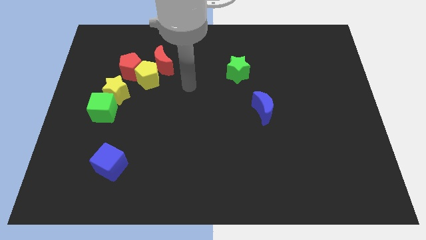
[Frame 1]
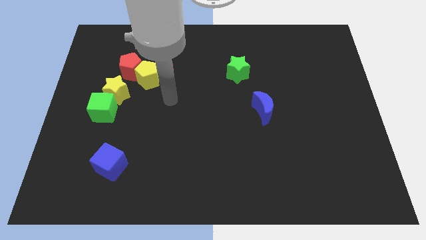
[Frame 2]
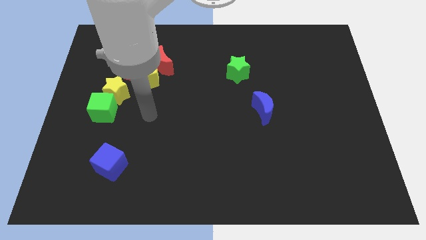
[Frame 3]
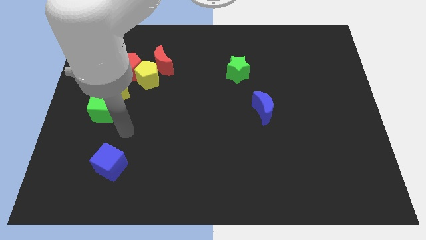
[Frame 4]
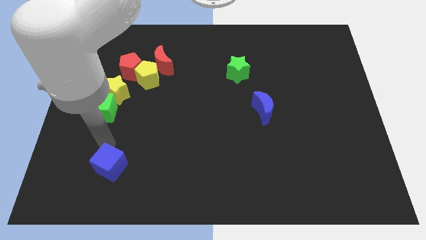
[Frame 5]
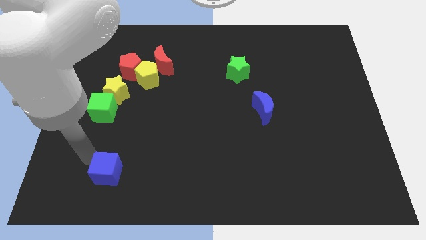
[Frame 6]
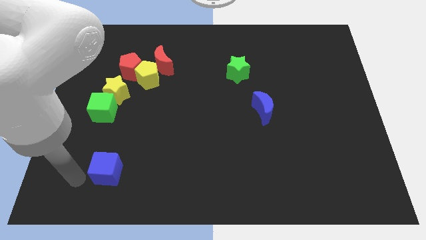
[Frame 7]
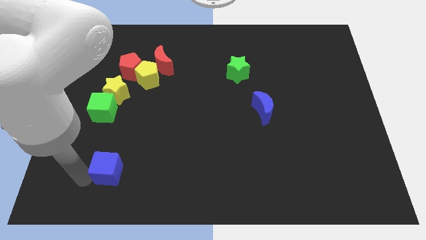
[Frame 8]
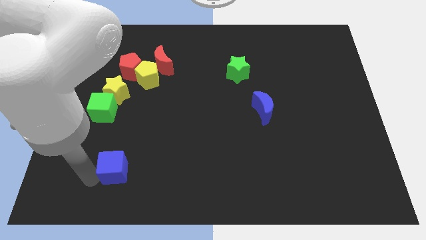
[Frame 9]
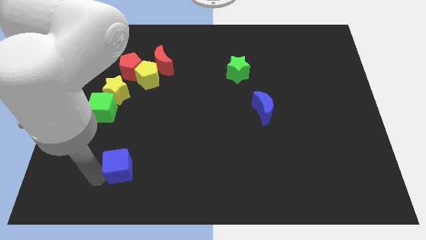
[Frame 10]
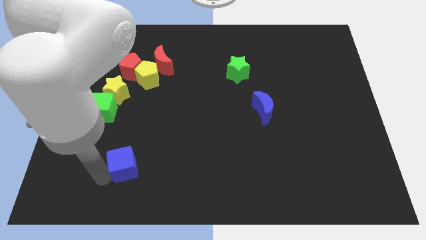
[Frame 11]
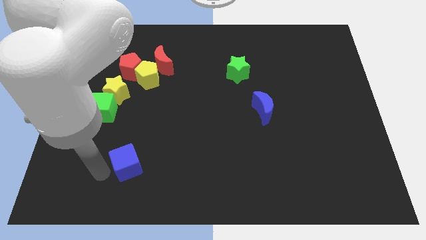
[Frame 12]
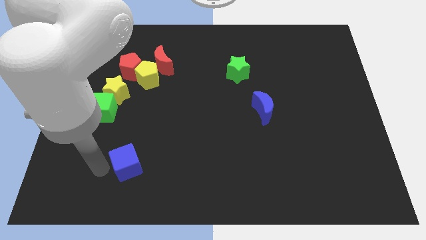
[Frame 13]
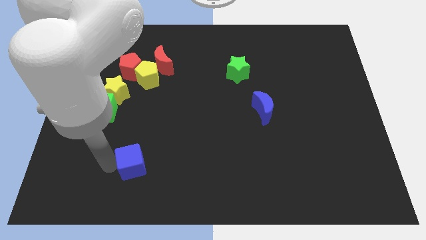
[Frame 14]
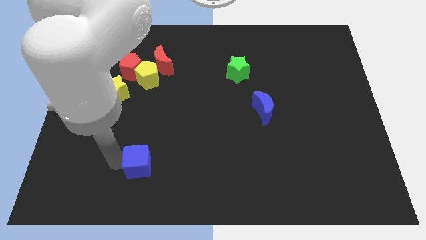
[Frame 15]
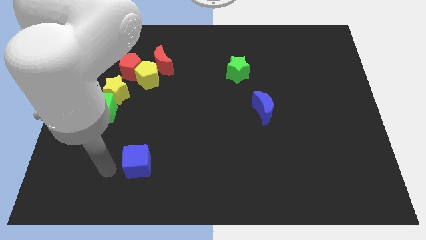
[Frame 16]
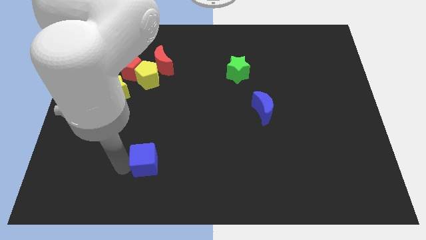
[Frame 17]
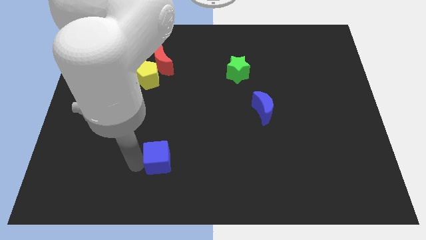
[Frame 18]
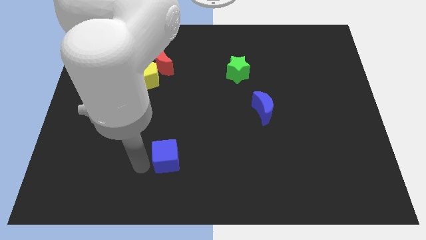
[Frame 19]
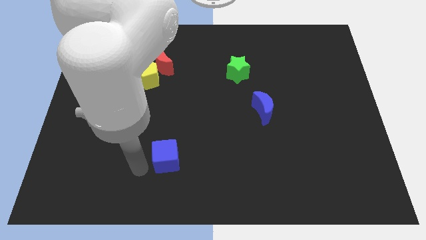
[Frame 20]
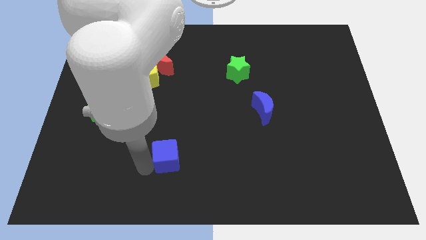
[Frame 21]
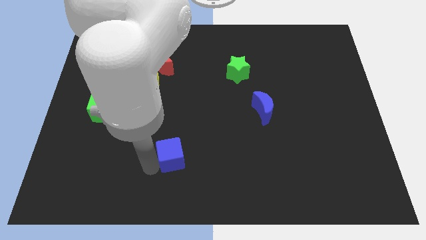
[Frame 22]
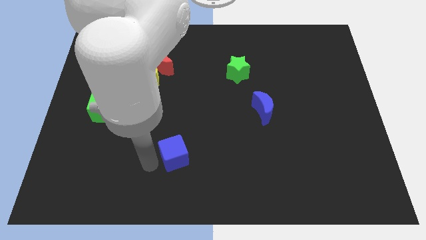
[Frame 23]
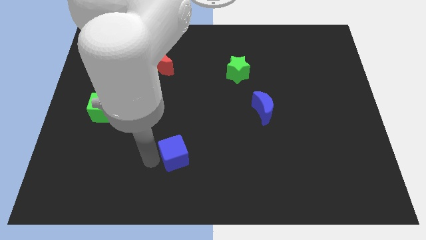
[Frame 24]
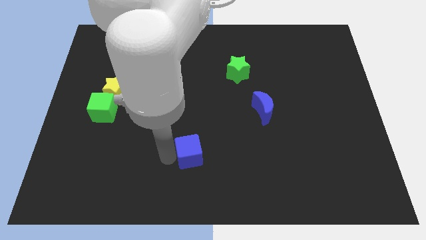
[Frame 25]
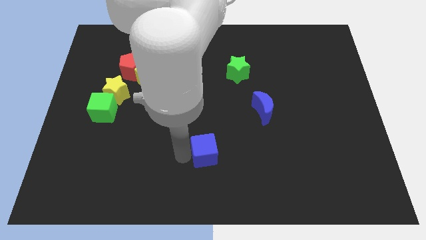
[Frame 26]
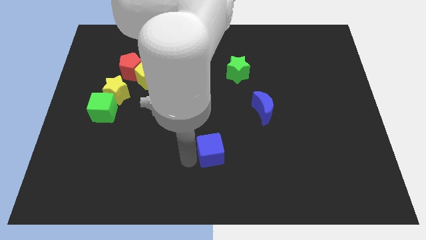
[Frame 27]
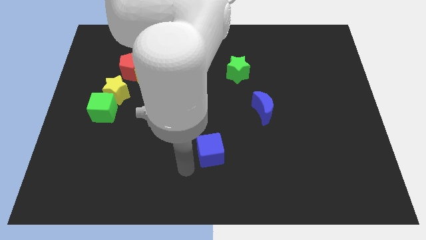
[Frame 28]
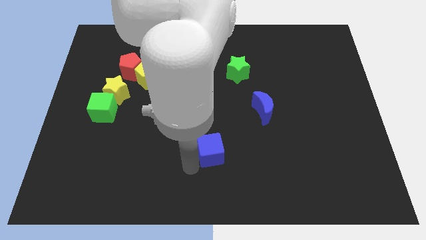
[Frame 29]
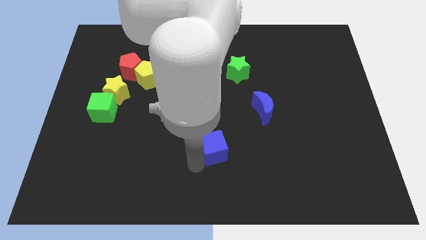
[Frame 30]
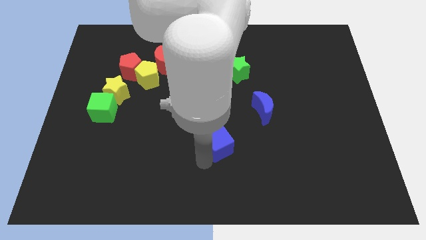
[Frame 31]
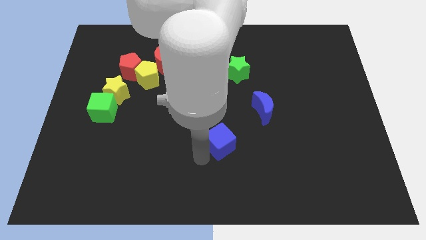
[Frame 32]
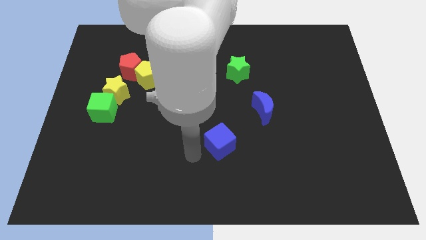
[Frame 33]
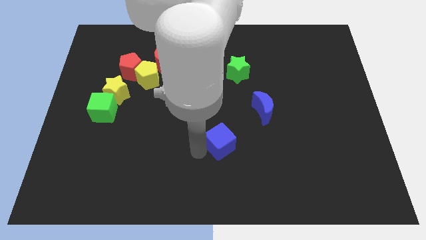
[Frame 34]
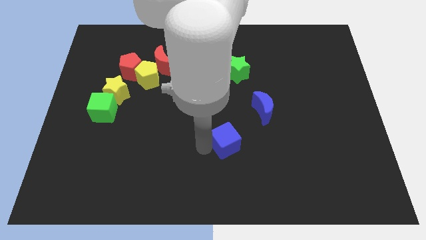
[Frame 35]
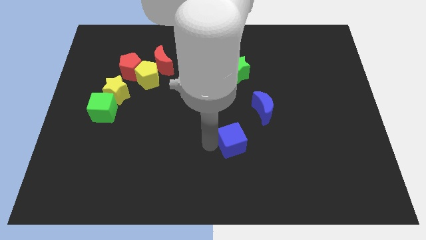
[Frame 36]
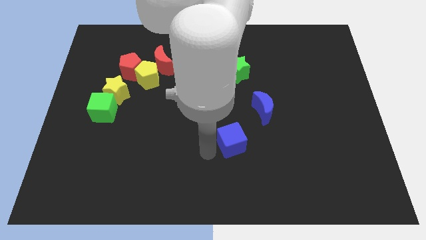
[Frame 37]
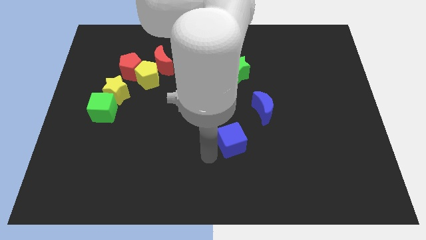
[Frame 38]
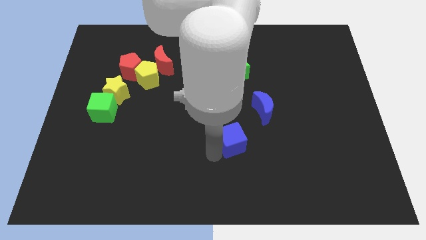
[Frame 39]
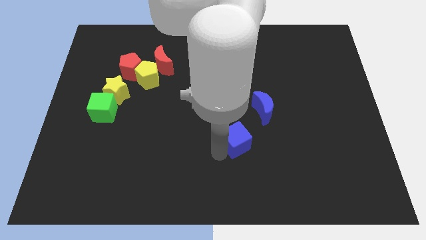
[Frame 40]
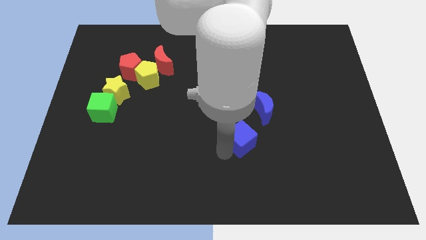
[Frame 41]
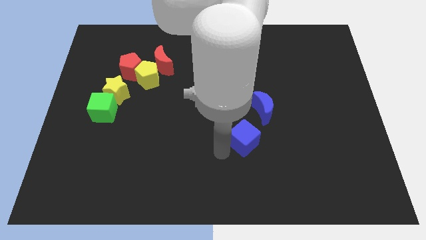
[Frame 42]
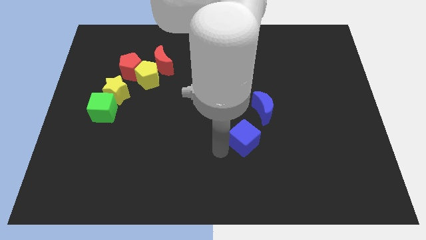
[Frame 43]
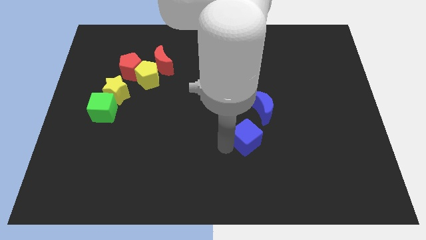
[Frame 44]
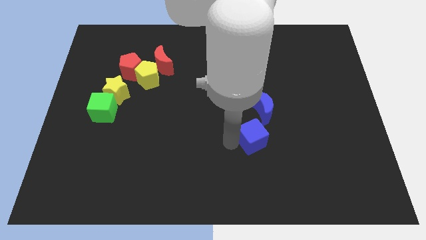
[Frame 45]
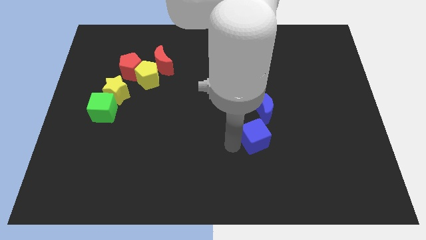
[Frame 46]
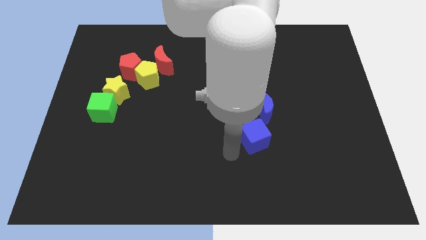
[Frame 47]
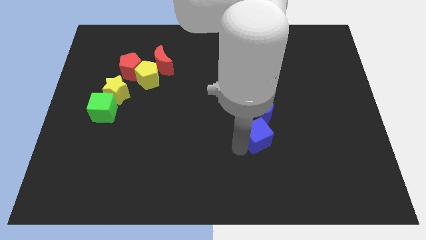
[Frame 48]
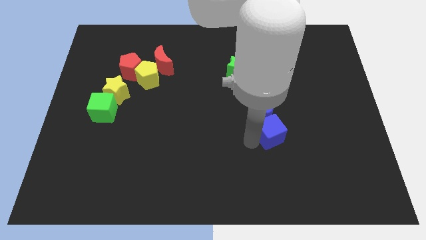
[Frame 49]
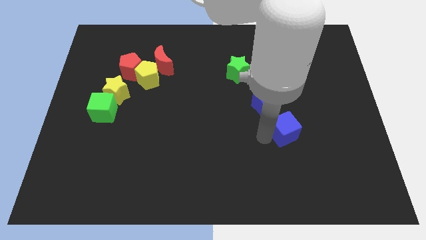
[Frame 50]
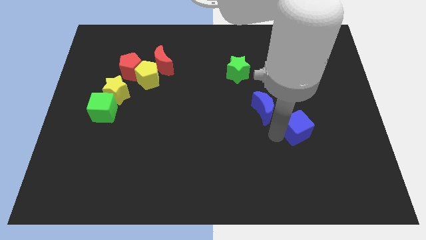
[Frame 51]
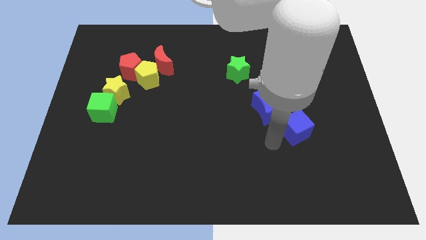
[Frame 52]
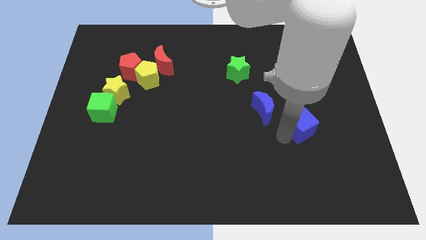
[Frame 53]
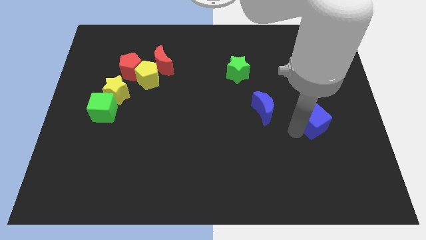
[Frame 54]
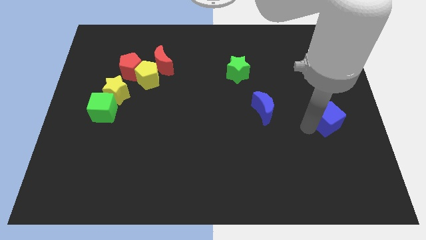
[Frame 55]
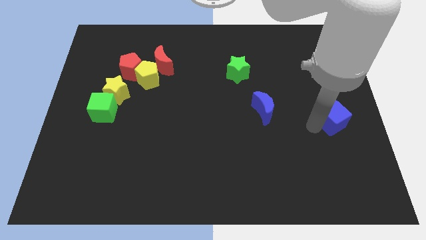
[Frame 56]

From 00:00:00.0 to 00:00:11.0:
move the blue cube to the right side of the board

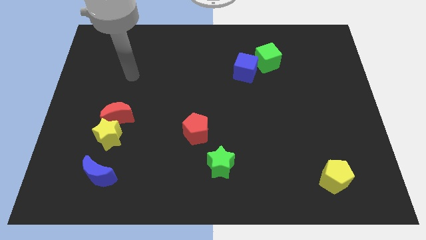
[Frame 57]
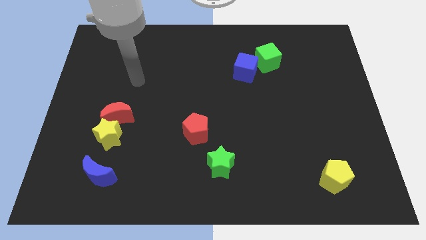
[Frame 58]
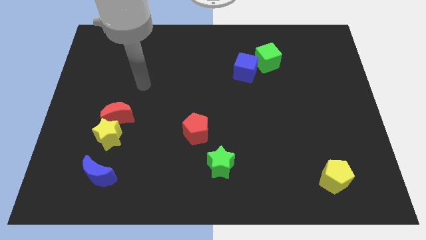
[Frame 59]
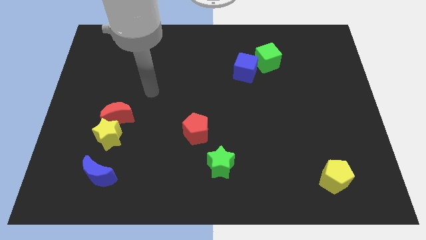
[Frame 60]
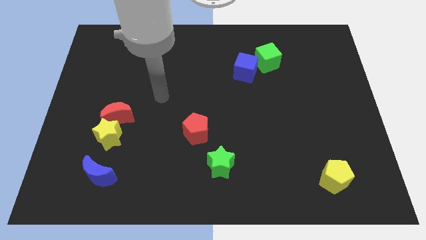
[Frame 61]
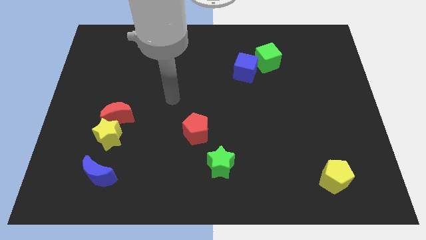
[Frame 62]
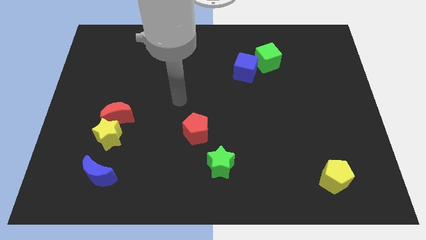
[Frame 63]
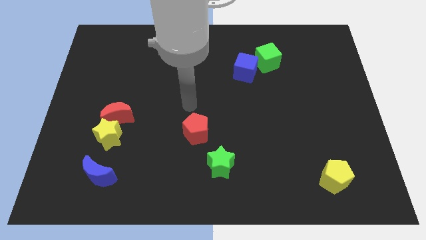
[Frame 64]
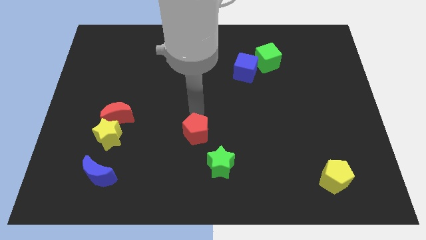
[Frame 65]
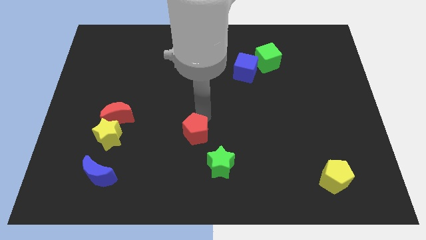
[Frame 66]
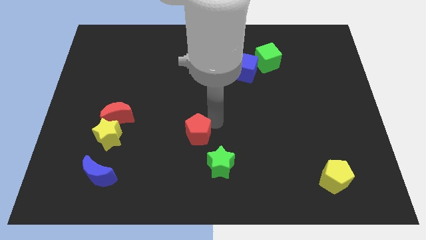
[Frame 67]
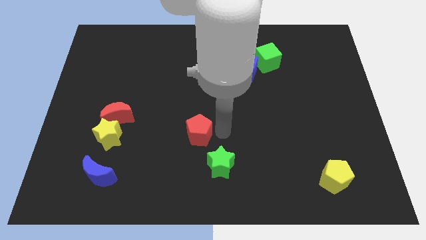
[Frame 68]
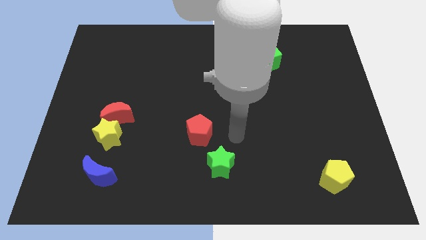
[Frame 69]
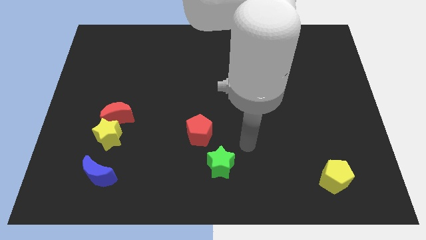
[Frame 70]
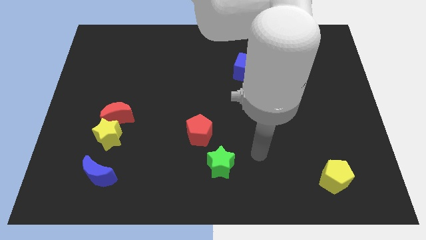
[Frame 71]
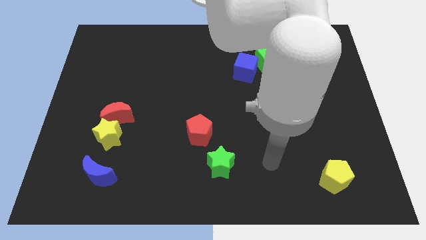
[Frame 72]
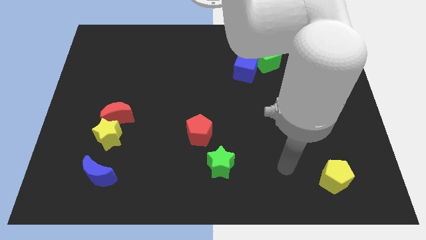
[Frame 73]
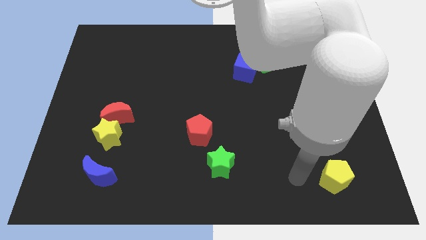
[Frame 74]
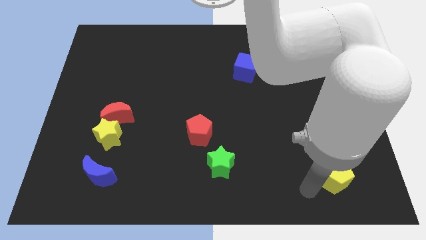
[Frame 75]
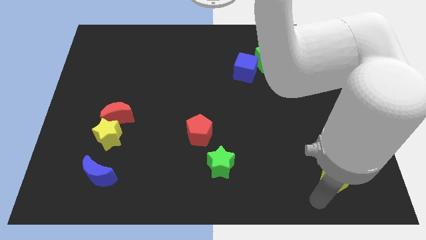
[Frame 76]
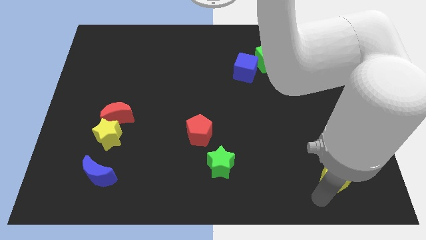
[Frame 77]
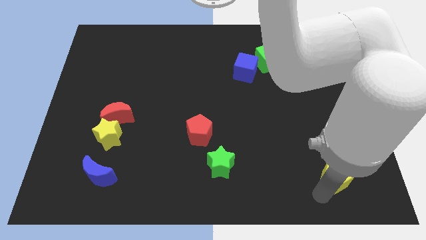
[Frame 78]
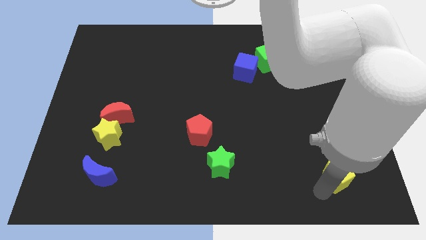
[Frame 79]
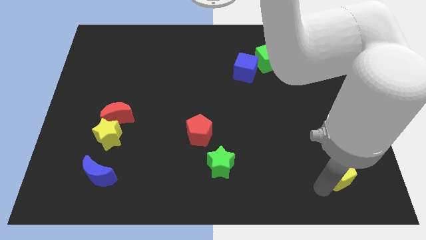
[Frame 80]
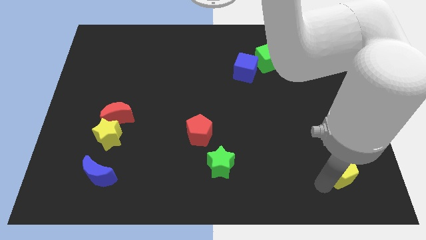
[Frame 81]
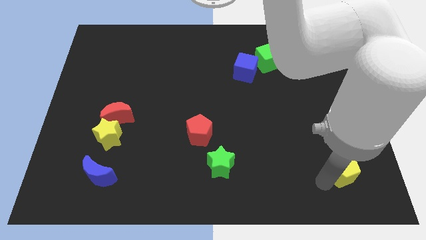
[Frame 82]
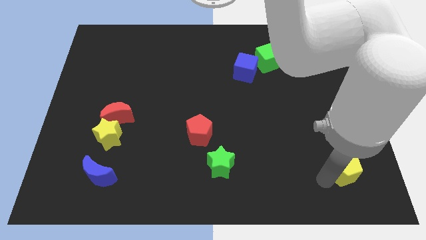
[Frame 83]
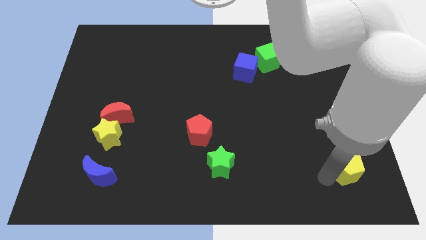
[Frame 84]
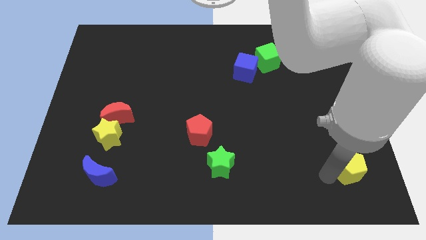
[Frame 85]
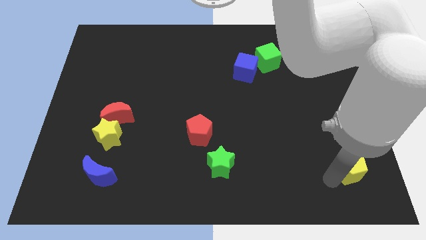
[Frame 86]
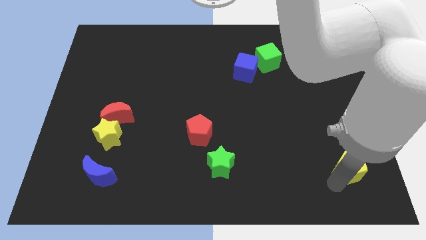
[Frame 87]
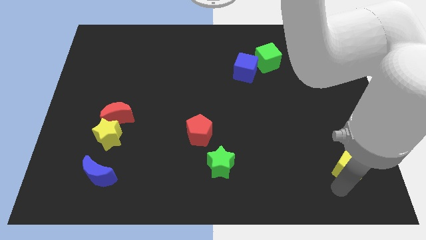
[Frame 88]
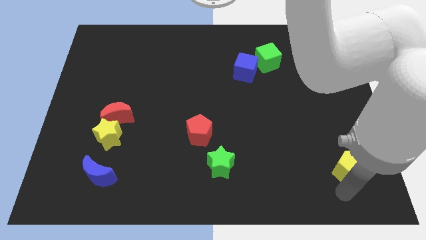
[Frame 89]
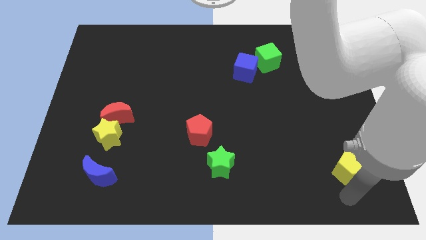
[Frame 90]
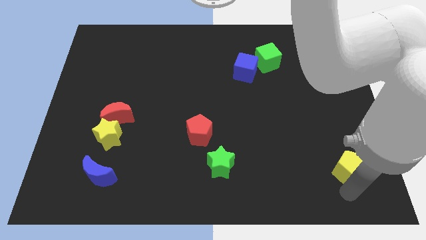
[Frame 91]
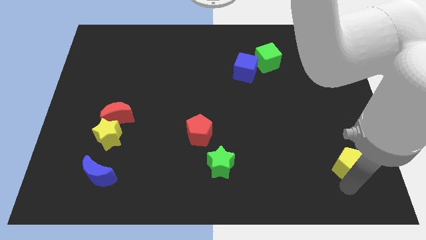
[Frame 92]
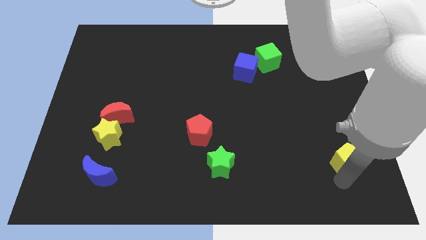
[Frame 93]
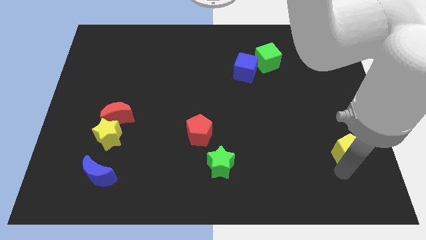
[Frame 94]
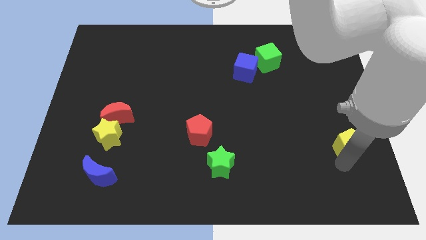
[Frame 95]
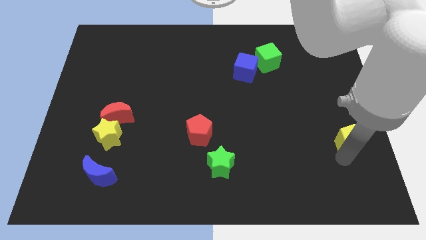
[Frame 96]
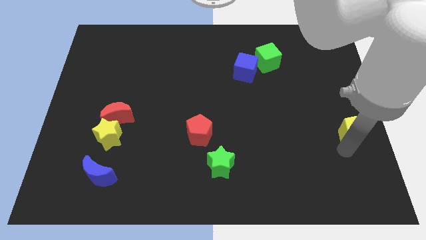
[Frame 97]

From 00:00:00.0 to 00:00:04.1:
move the yellow pentagon to the center right
